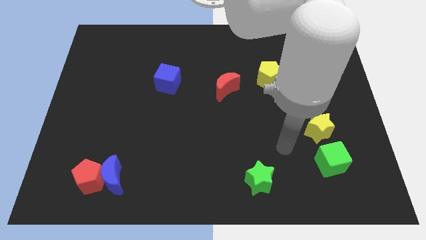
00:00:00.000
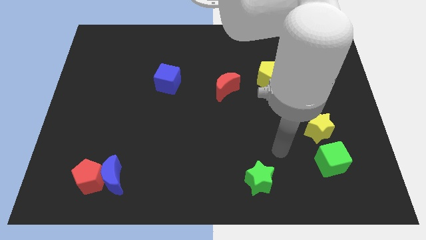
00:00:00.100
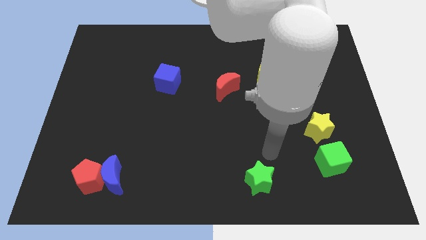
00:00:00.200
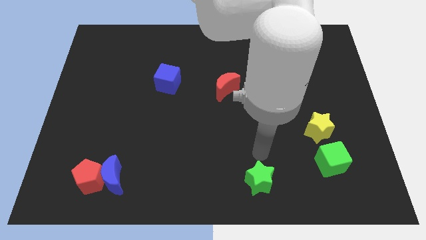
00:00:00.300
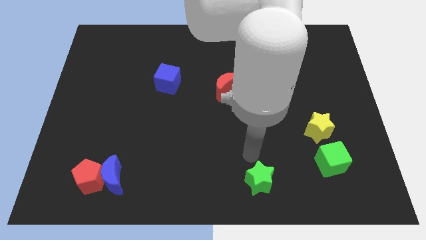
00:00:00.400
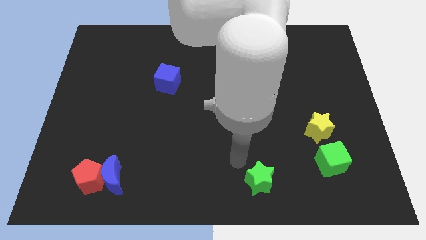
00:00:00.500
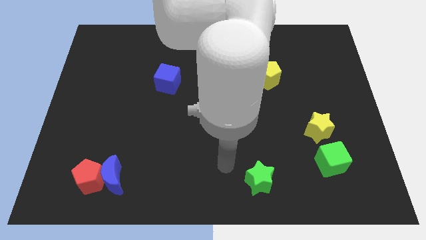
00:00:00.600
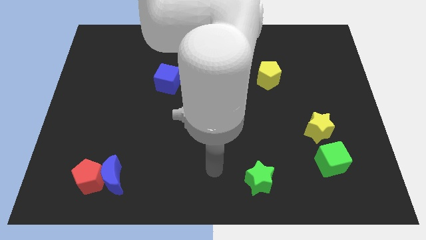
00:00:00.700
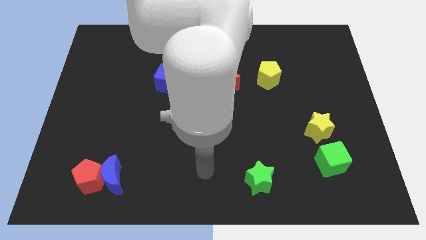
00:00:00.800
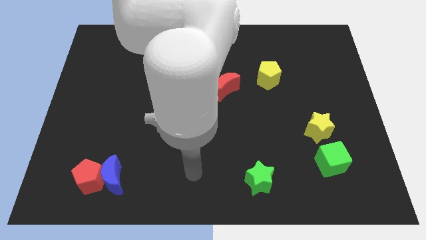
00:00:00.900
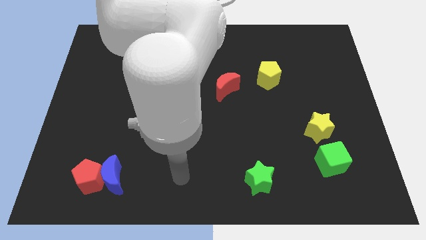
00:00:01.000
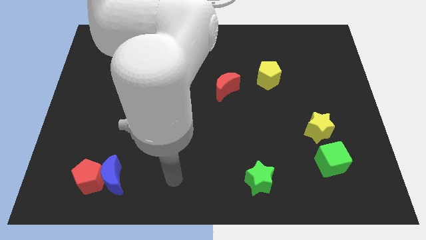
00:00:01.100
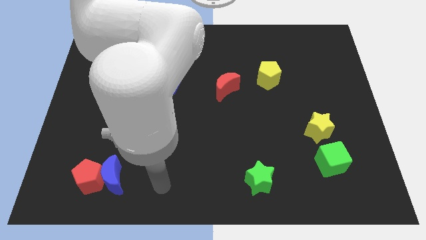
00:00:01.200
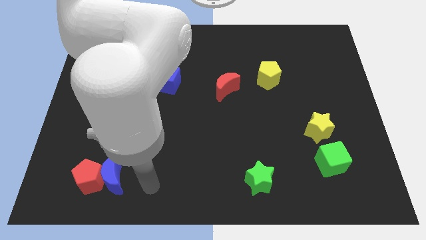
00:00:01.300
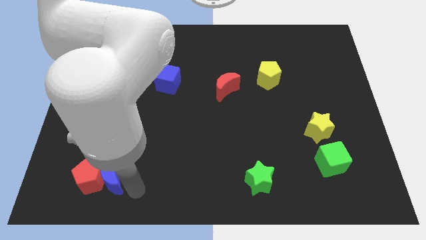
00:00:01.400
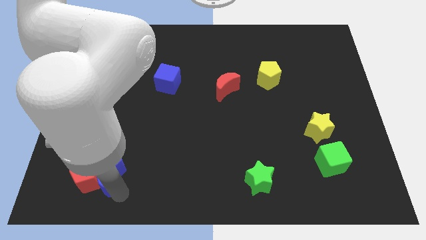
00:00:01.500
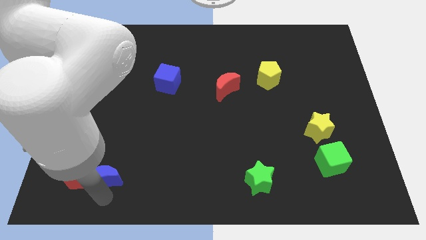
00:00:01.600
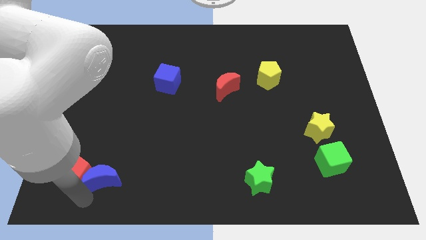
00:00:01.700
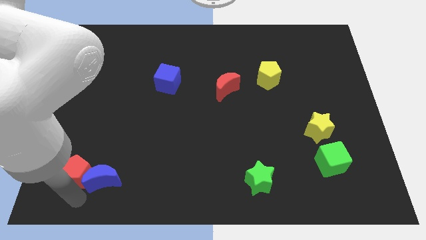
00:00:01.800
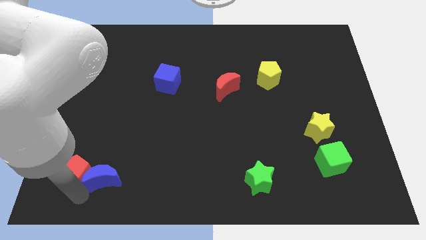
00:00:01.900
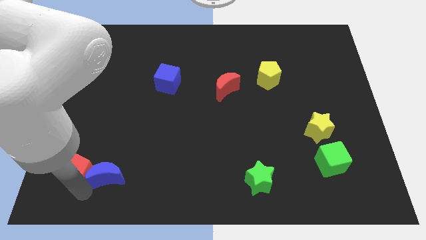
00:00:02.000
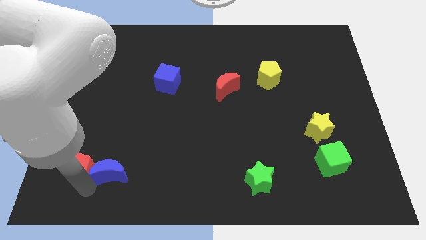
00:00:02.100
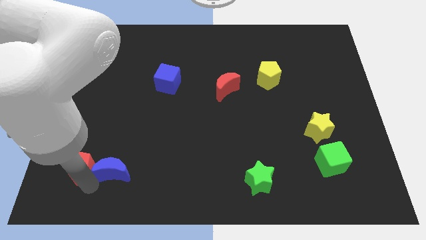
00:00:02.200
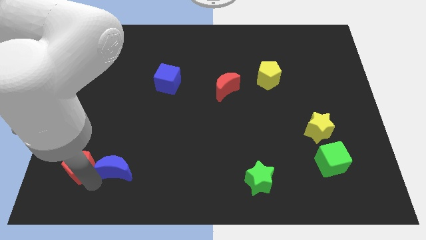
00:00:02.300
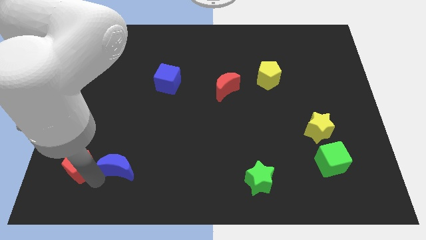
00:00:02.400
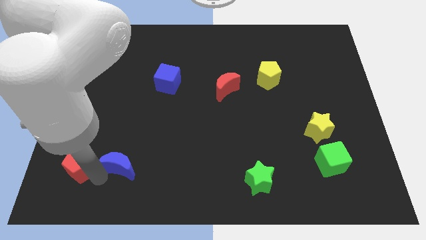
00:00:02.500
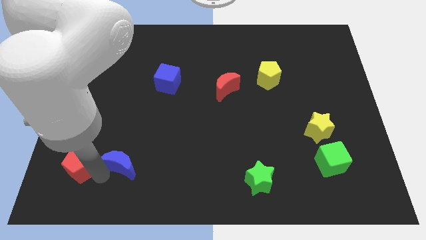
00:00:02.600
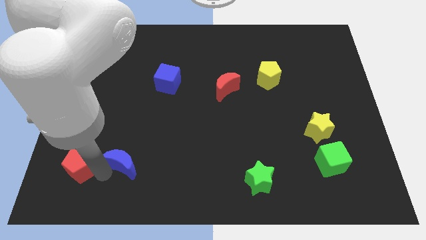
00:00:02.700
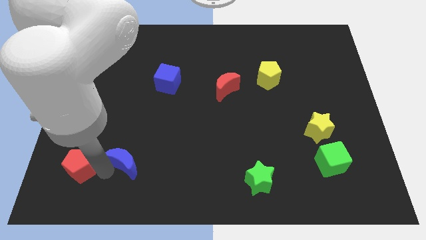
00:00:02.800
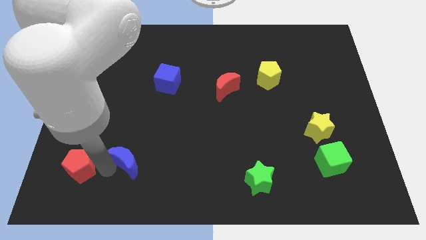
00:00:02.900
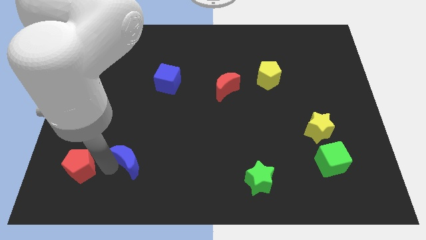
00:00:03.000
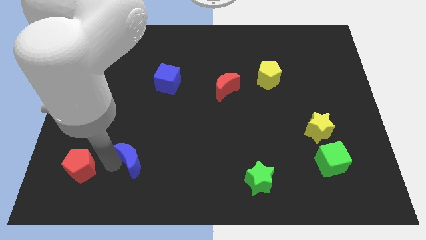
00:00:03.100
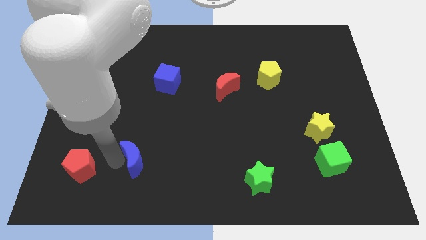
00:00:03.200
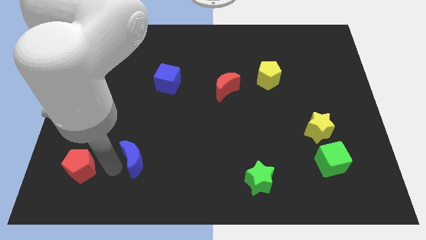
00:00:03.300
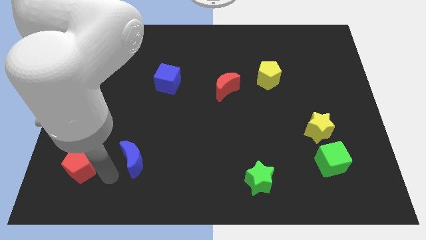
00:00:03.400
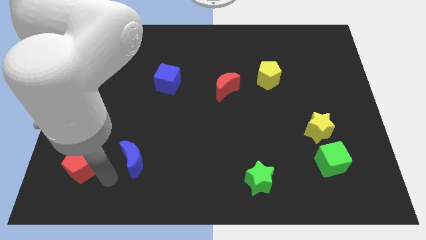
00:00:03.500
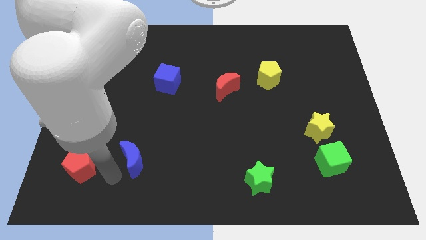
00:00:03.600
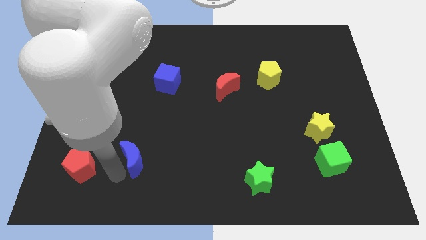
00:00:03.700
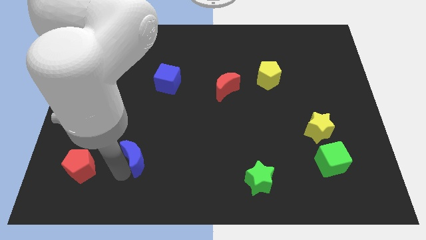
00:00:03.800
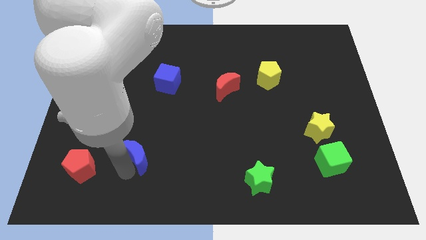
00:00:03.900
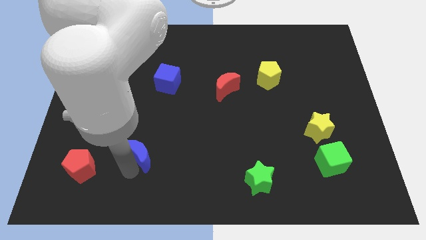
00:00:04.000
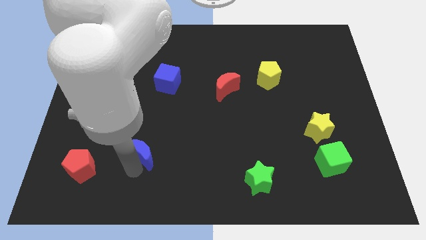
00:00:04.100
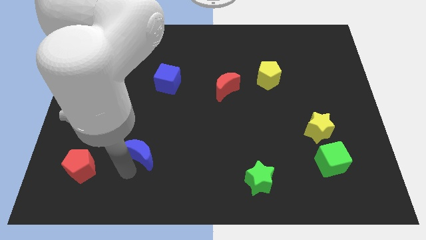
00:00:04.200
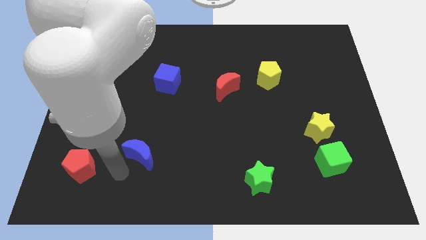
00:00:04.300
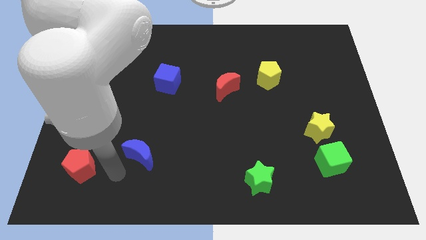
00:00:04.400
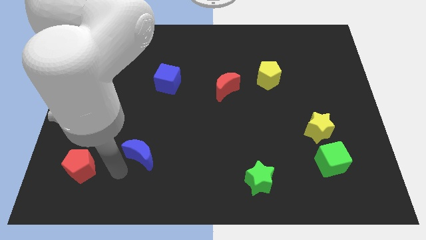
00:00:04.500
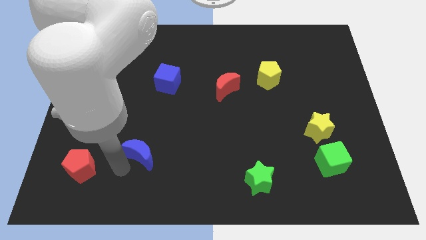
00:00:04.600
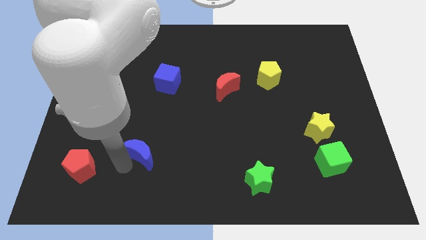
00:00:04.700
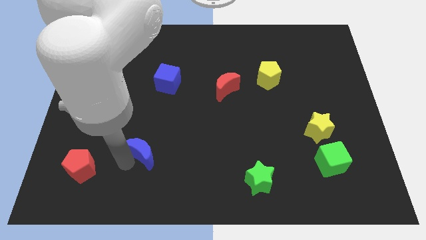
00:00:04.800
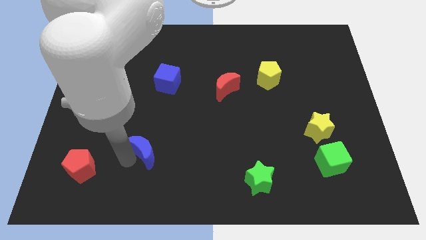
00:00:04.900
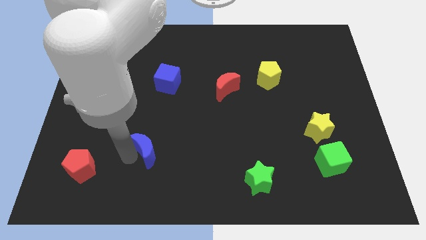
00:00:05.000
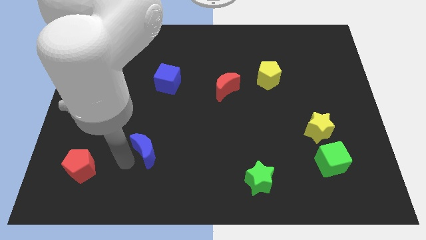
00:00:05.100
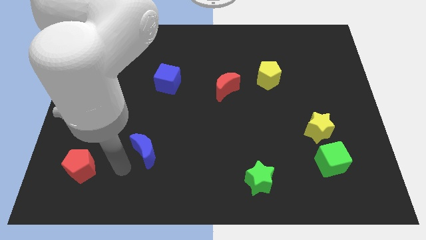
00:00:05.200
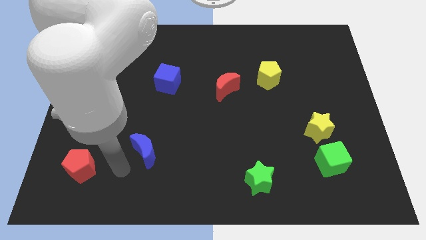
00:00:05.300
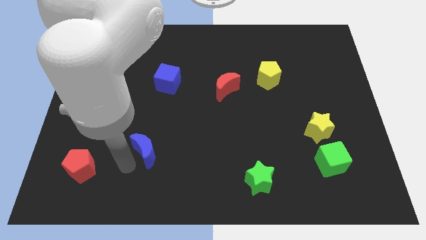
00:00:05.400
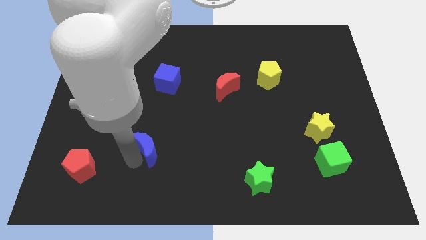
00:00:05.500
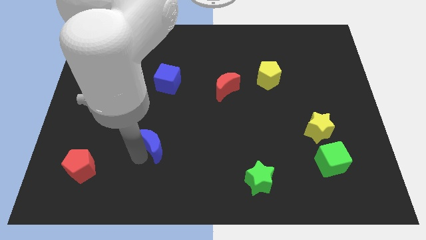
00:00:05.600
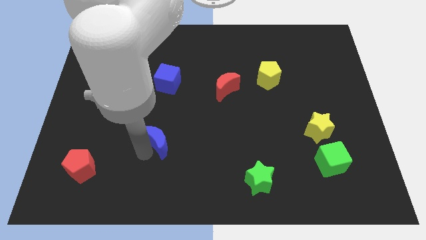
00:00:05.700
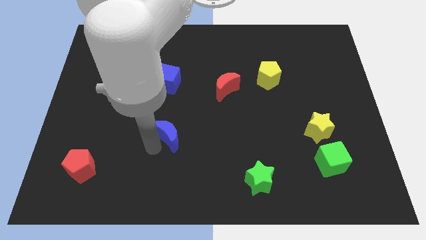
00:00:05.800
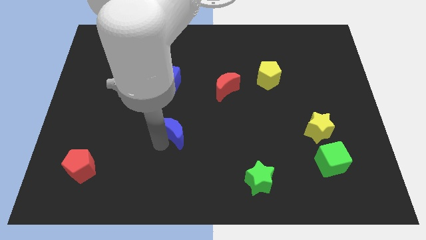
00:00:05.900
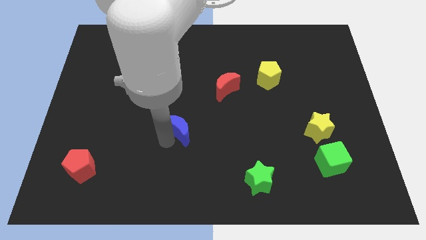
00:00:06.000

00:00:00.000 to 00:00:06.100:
push the blue moon to the middle of the board

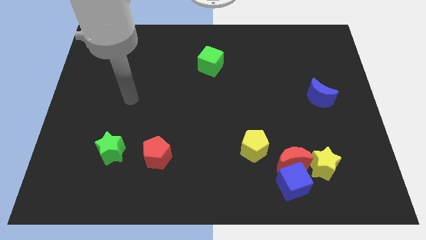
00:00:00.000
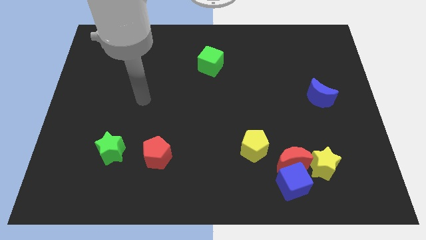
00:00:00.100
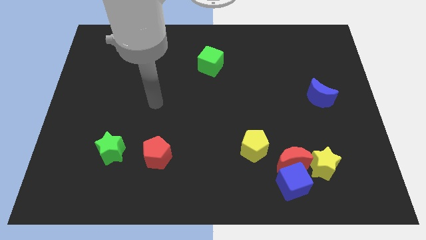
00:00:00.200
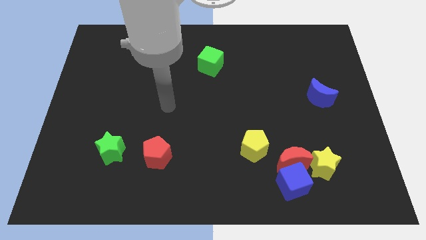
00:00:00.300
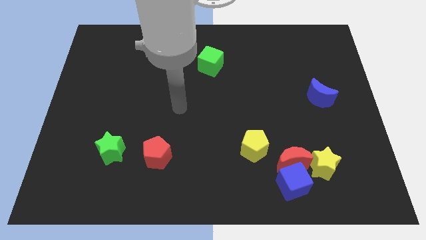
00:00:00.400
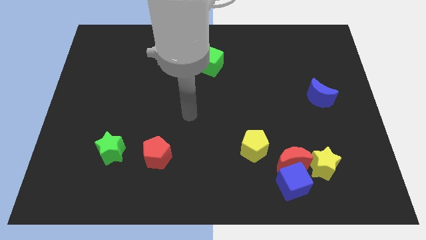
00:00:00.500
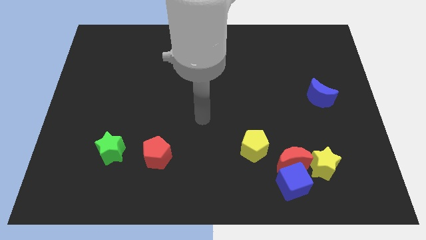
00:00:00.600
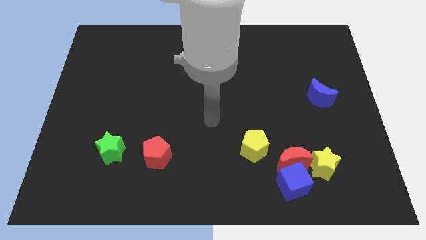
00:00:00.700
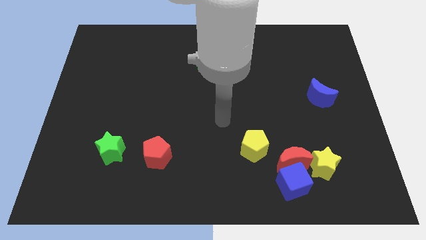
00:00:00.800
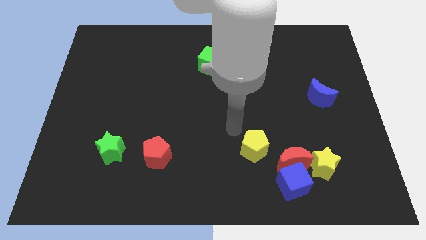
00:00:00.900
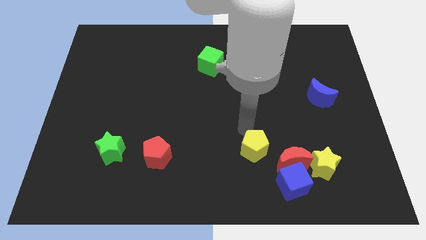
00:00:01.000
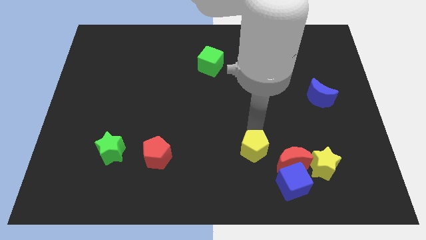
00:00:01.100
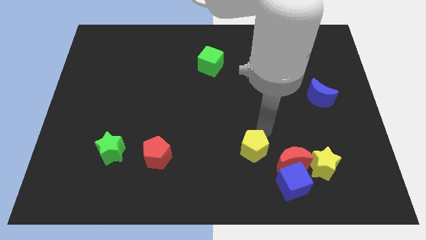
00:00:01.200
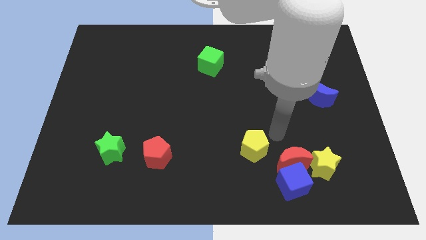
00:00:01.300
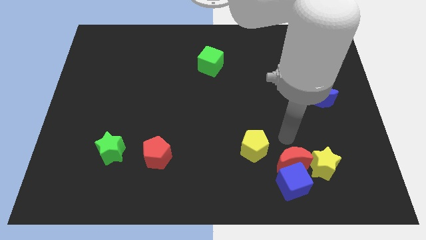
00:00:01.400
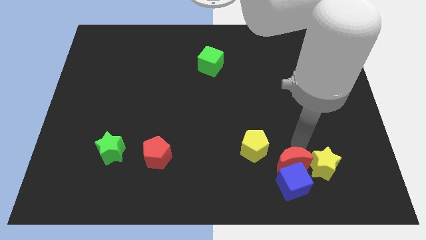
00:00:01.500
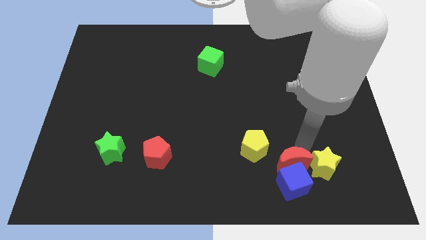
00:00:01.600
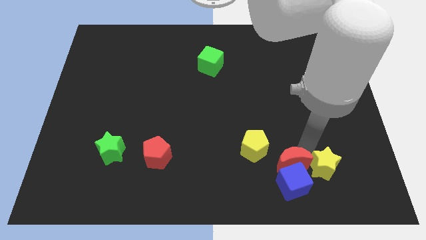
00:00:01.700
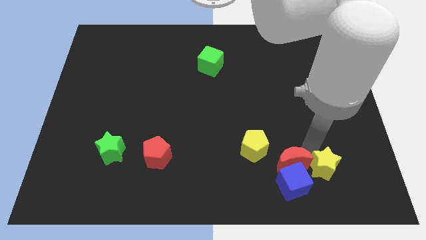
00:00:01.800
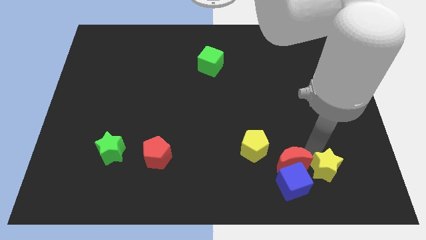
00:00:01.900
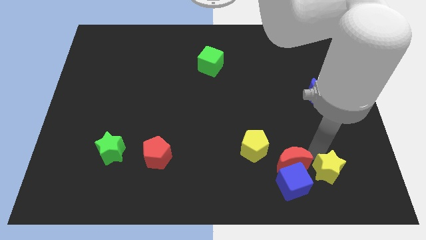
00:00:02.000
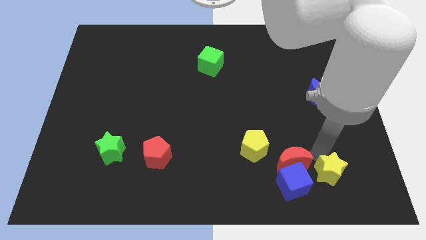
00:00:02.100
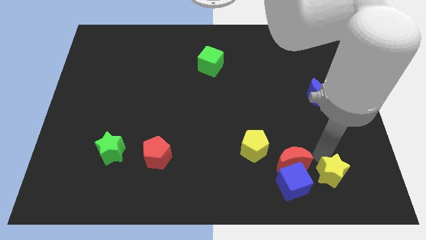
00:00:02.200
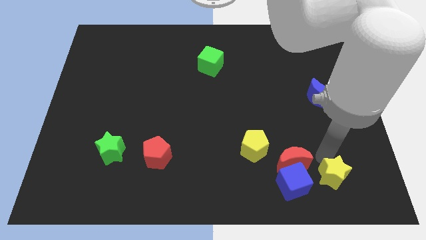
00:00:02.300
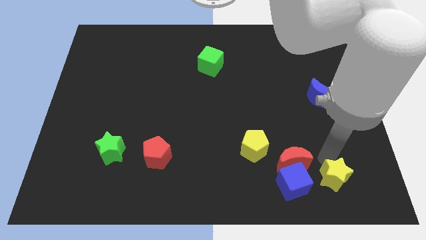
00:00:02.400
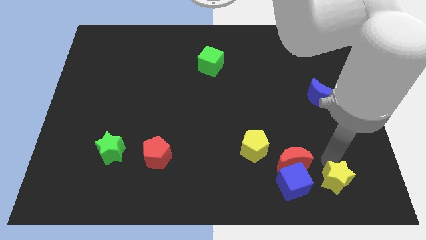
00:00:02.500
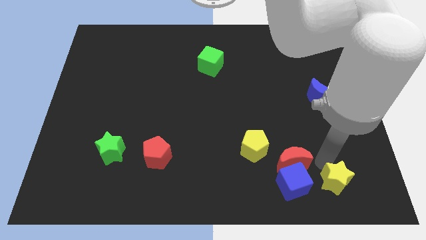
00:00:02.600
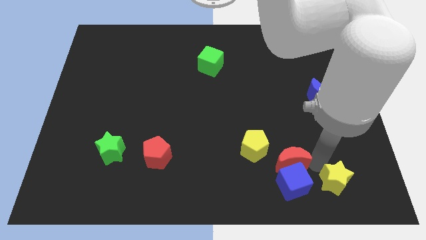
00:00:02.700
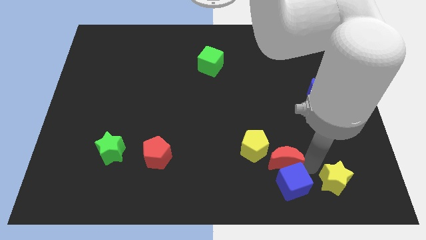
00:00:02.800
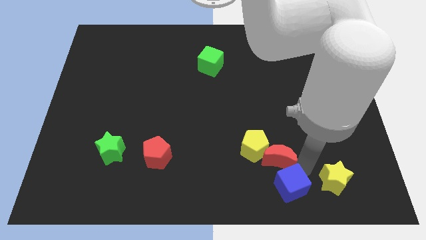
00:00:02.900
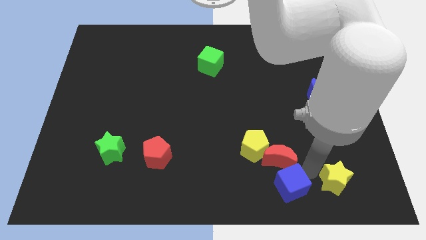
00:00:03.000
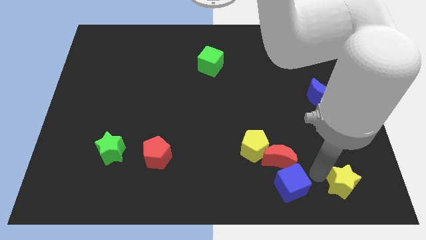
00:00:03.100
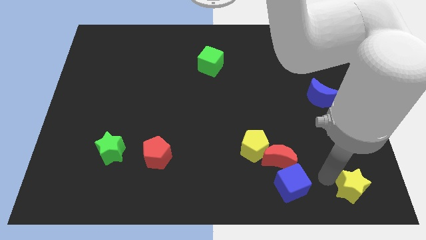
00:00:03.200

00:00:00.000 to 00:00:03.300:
push the yellow star to the bottom right
